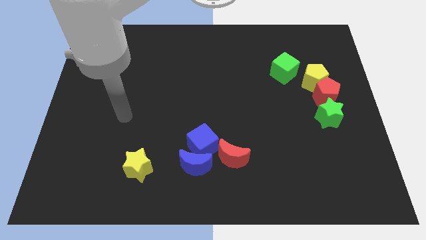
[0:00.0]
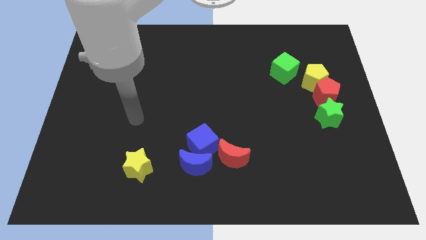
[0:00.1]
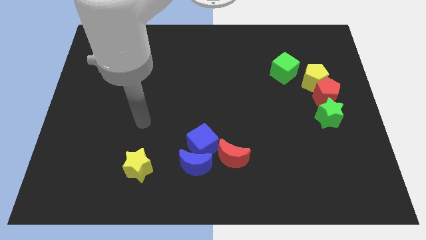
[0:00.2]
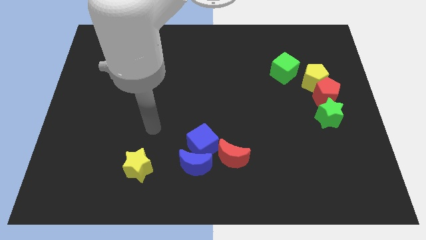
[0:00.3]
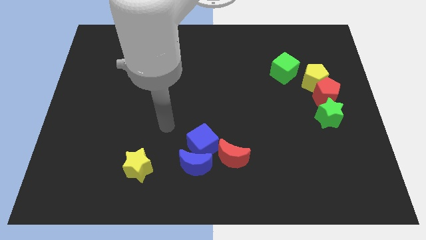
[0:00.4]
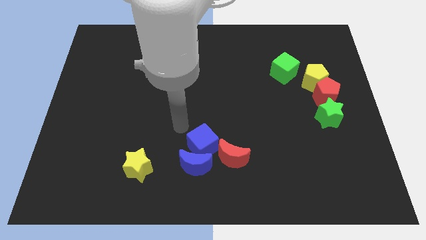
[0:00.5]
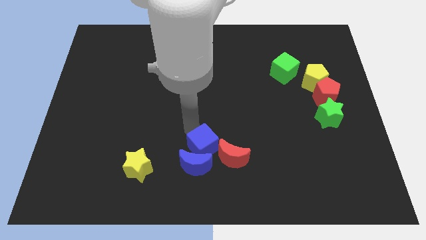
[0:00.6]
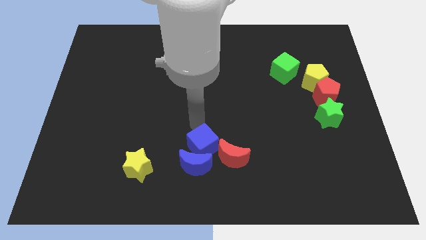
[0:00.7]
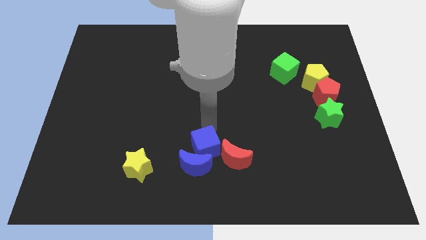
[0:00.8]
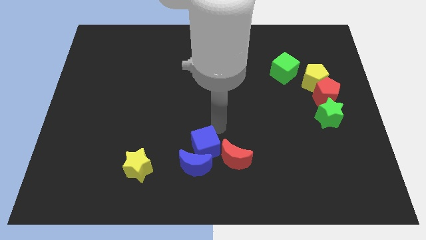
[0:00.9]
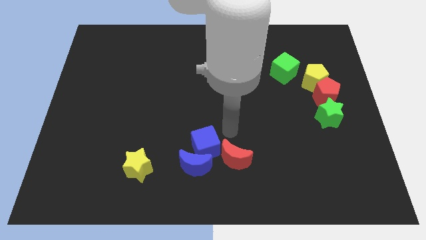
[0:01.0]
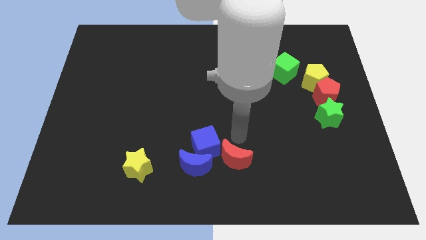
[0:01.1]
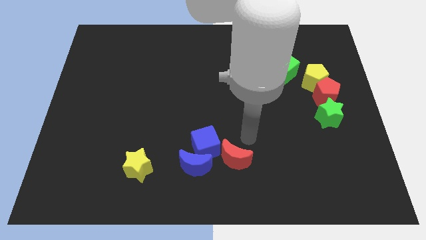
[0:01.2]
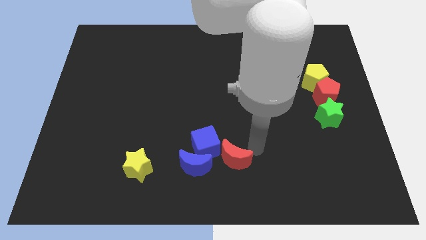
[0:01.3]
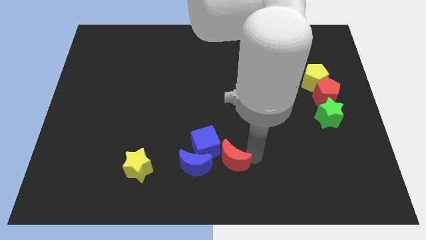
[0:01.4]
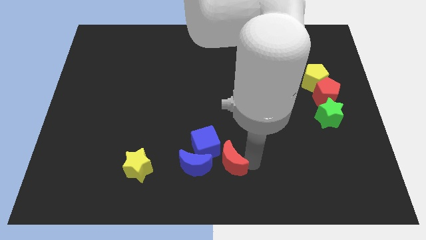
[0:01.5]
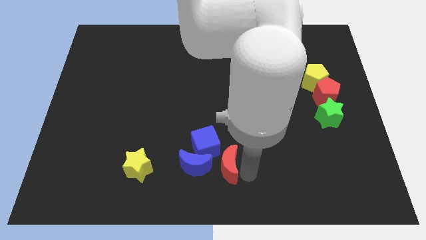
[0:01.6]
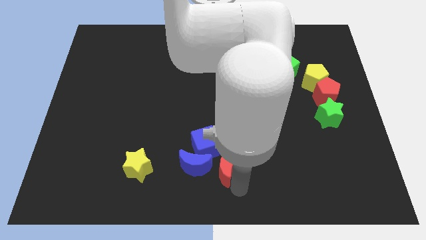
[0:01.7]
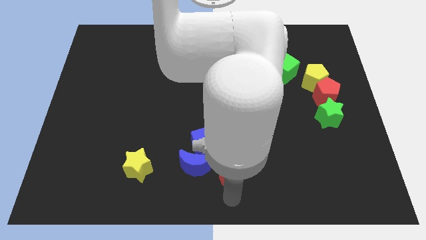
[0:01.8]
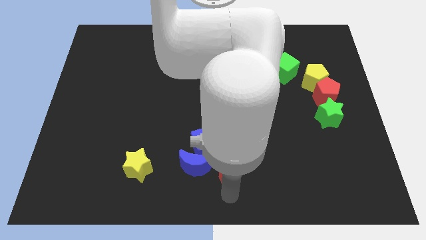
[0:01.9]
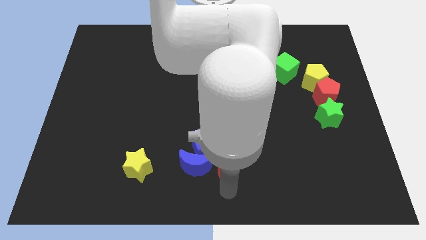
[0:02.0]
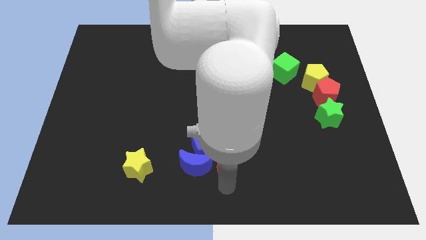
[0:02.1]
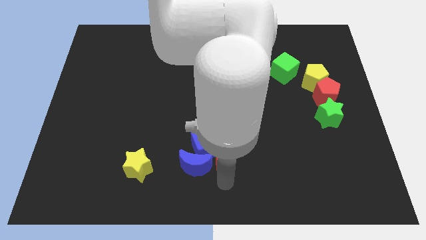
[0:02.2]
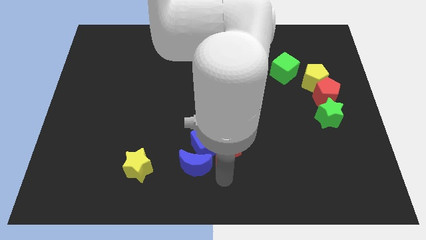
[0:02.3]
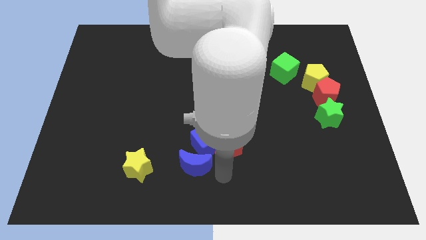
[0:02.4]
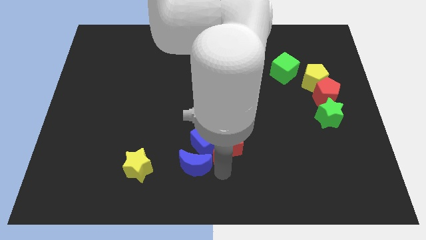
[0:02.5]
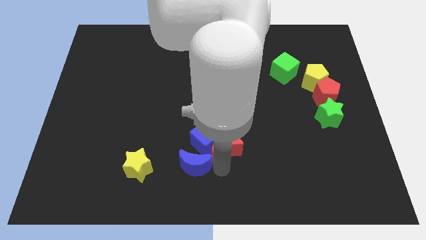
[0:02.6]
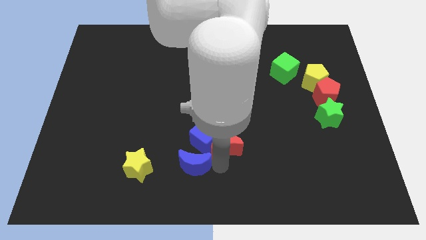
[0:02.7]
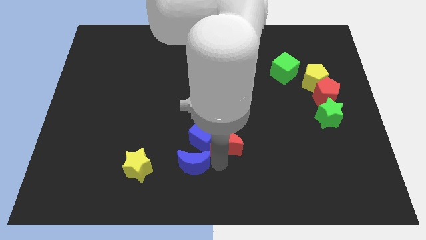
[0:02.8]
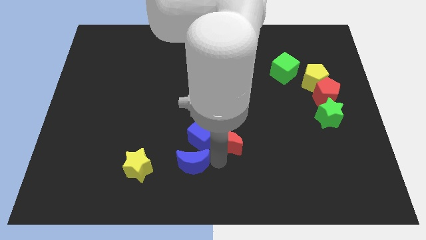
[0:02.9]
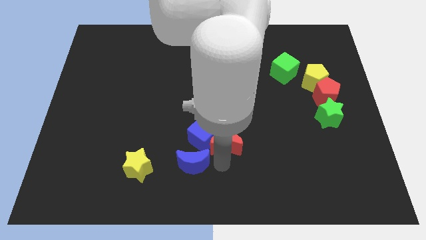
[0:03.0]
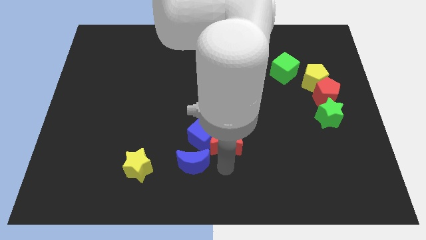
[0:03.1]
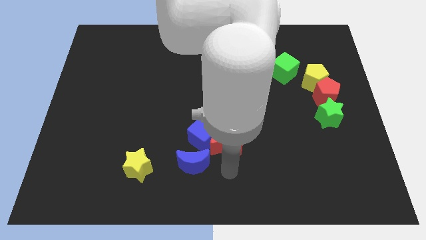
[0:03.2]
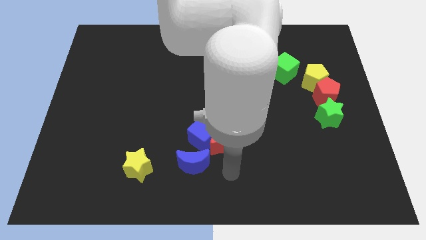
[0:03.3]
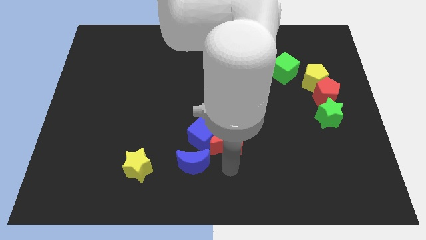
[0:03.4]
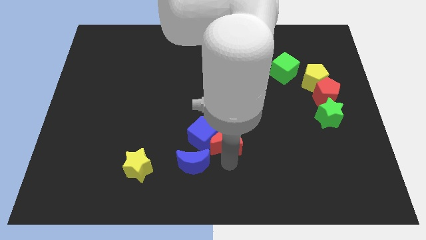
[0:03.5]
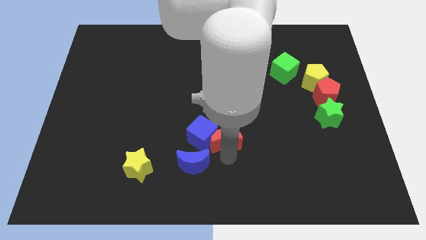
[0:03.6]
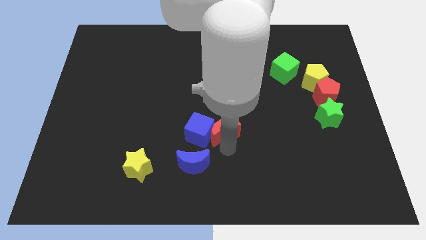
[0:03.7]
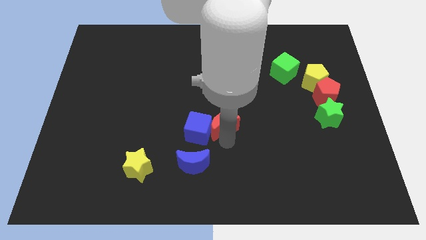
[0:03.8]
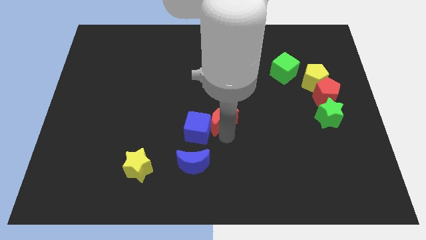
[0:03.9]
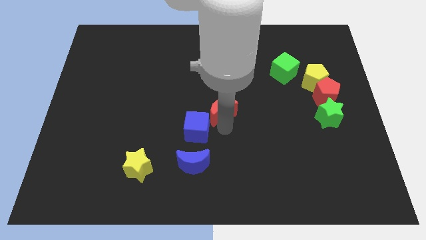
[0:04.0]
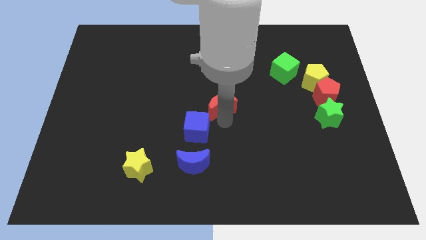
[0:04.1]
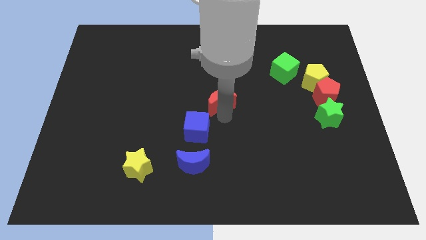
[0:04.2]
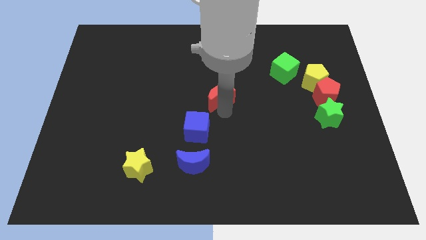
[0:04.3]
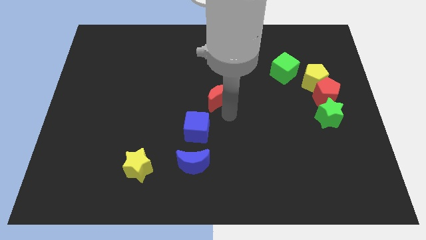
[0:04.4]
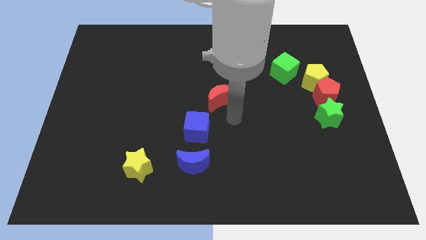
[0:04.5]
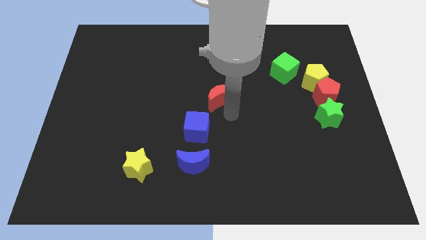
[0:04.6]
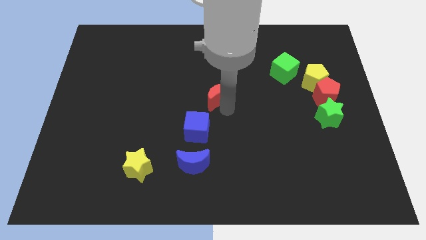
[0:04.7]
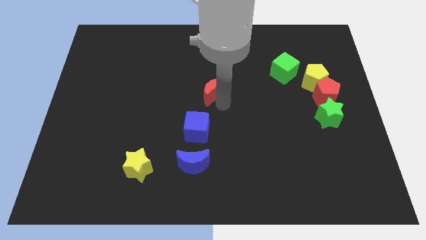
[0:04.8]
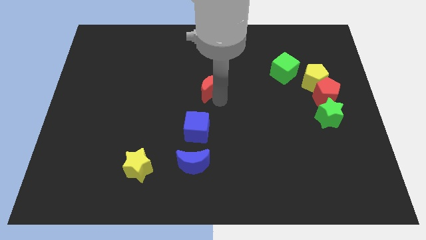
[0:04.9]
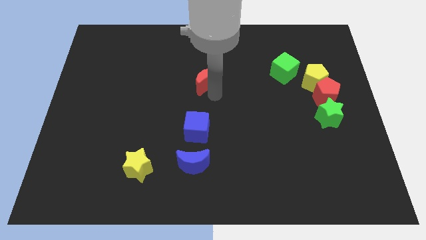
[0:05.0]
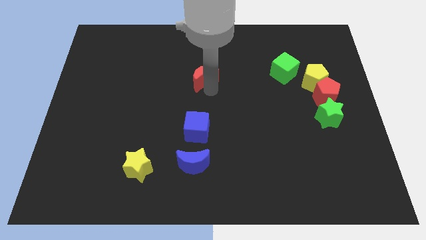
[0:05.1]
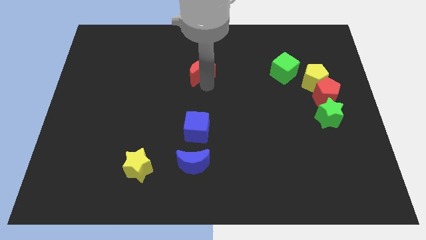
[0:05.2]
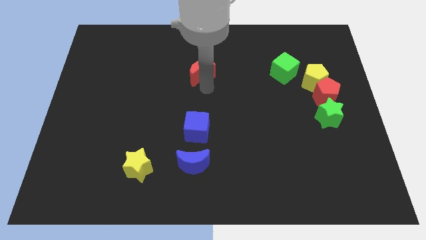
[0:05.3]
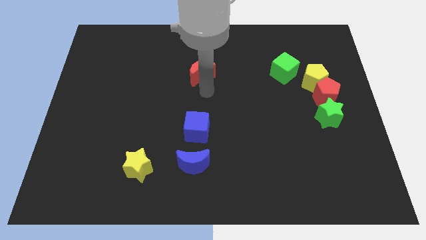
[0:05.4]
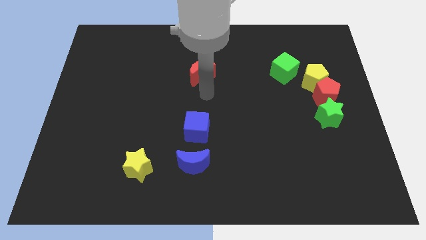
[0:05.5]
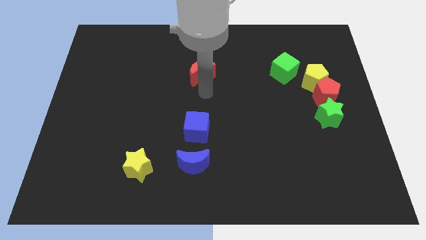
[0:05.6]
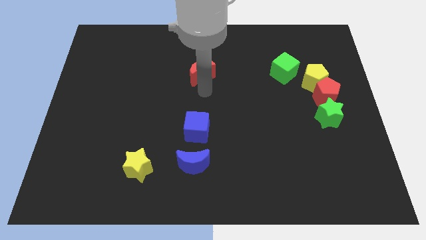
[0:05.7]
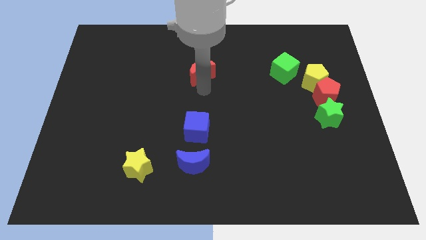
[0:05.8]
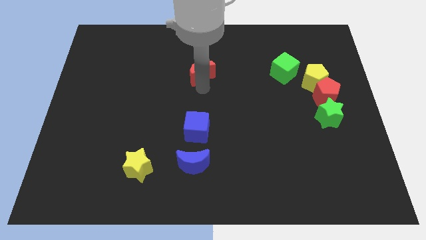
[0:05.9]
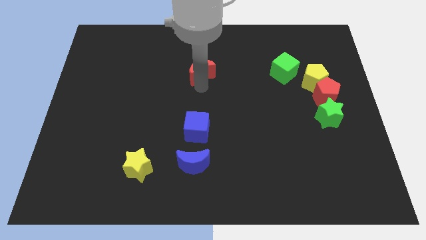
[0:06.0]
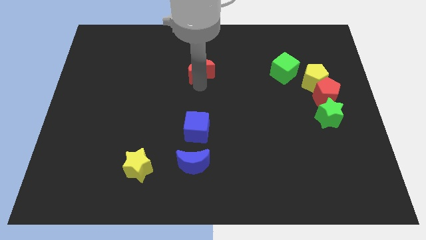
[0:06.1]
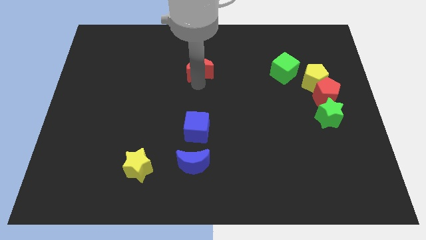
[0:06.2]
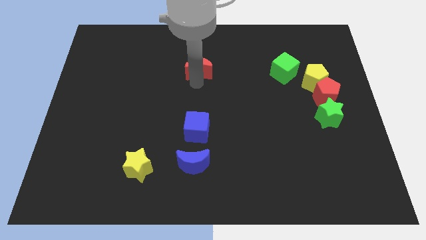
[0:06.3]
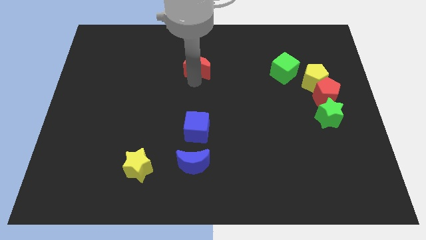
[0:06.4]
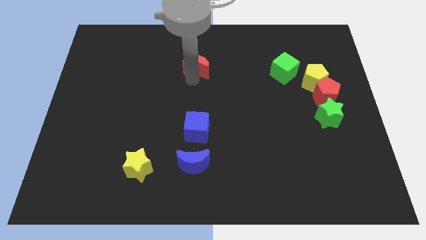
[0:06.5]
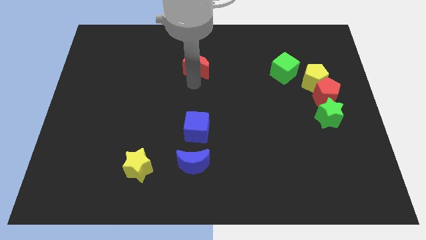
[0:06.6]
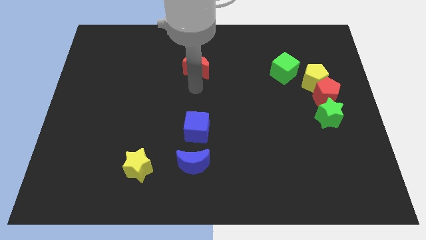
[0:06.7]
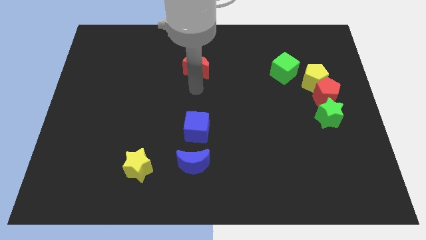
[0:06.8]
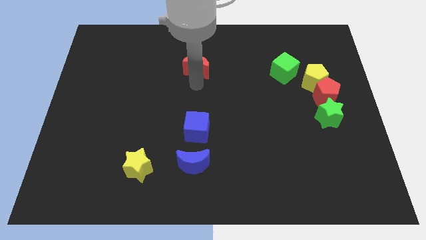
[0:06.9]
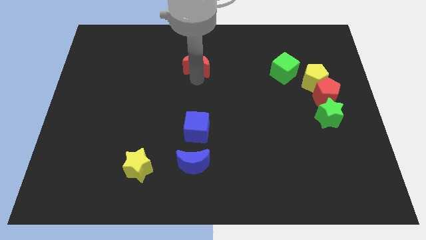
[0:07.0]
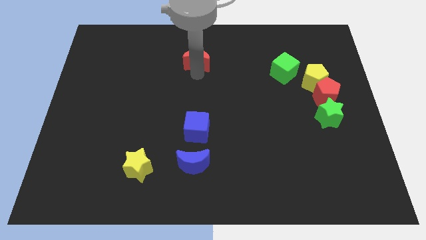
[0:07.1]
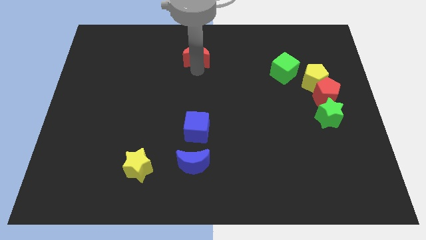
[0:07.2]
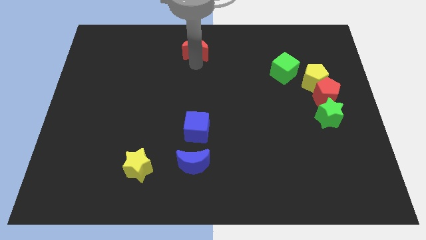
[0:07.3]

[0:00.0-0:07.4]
put the red moon to the top
